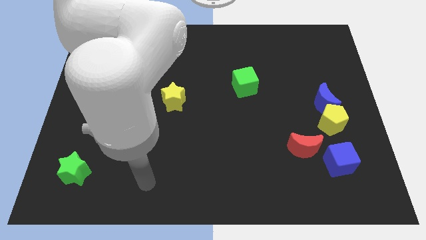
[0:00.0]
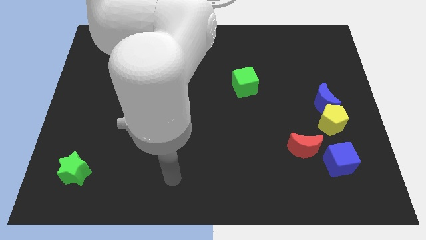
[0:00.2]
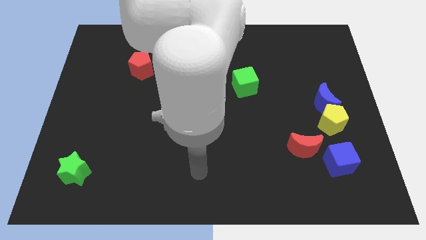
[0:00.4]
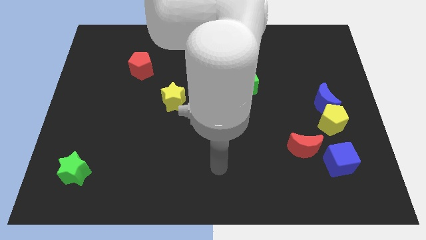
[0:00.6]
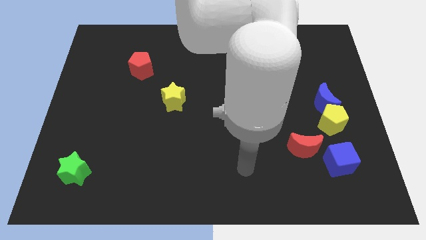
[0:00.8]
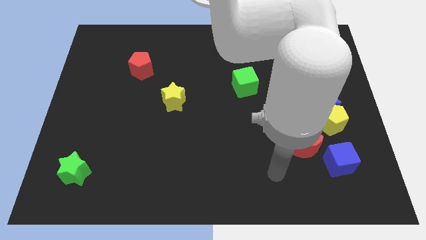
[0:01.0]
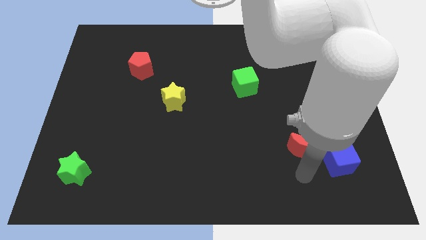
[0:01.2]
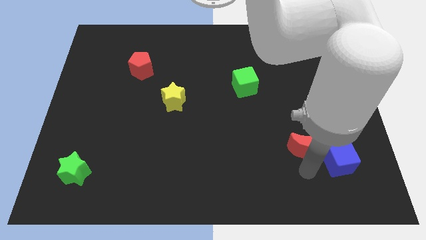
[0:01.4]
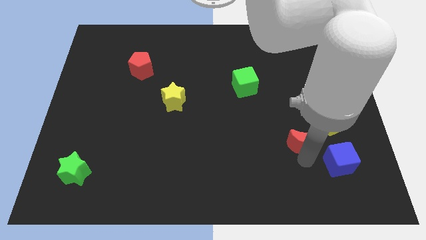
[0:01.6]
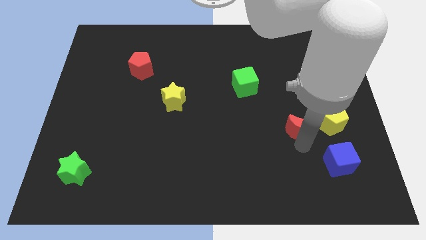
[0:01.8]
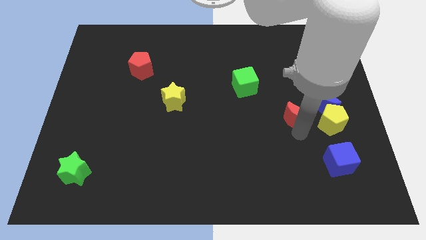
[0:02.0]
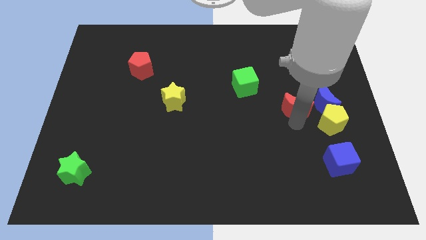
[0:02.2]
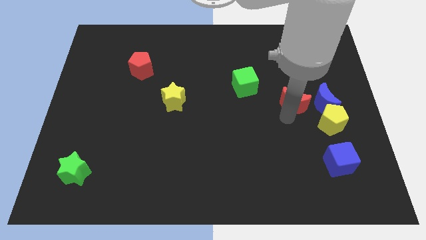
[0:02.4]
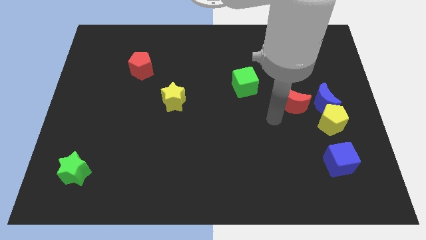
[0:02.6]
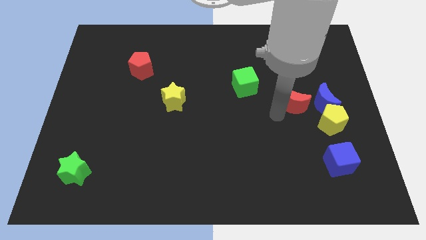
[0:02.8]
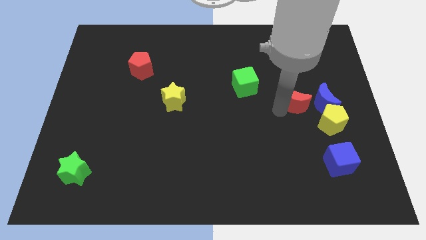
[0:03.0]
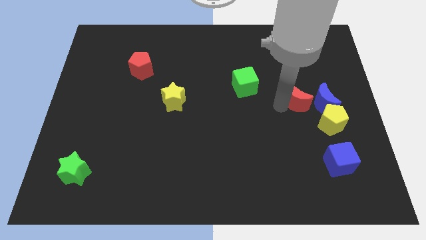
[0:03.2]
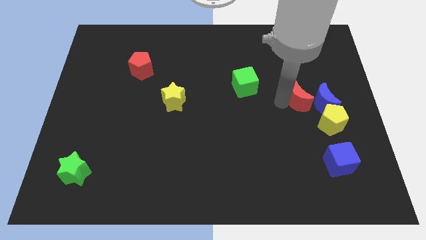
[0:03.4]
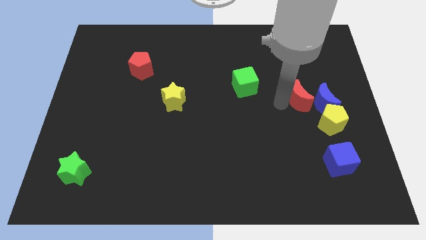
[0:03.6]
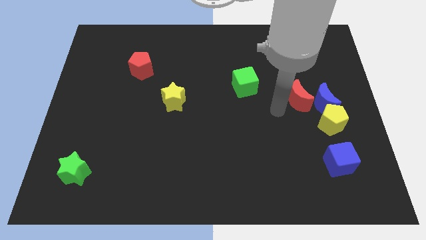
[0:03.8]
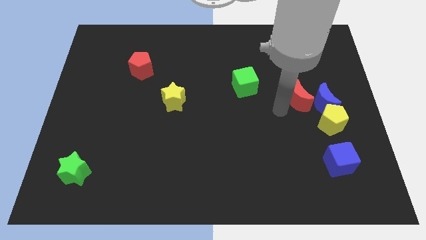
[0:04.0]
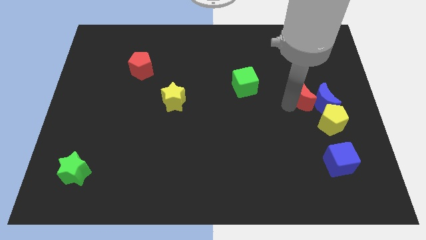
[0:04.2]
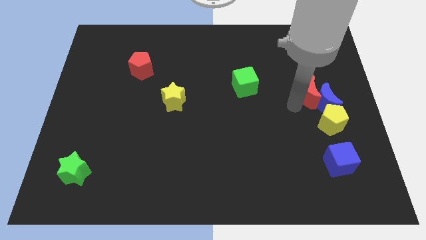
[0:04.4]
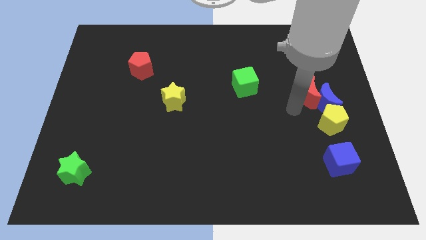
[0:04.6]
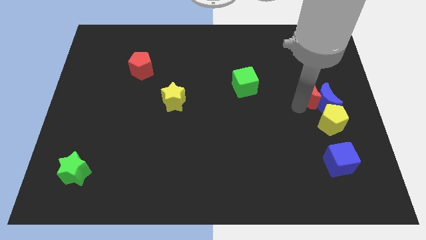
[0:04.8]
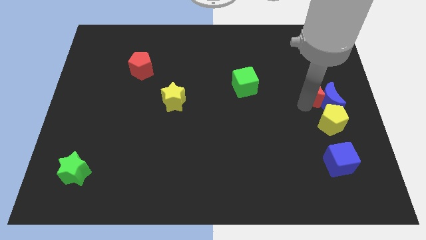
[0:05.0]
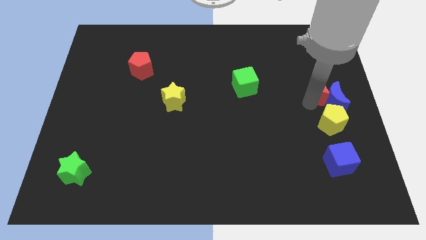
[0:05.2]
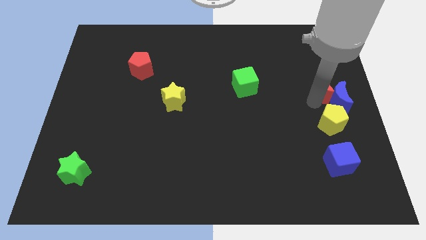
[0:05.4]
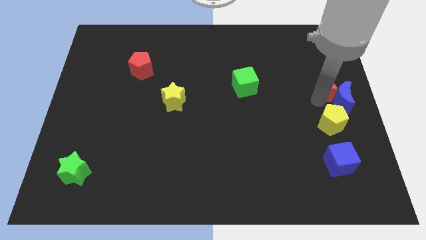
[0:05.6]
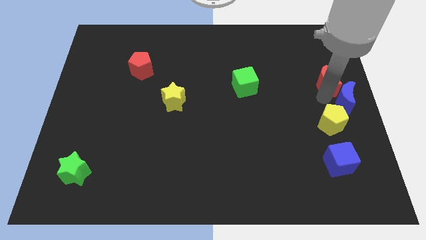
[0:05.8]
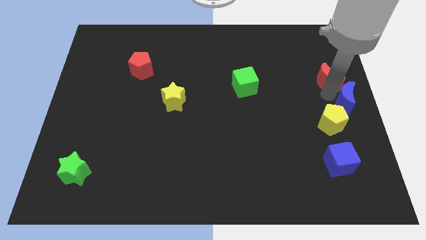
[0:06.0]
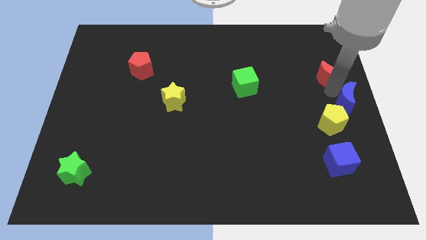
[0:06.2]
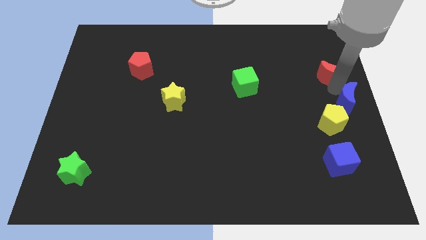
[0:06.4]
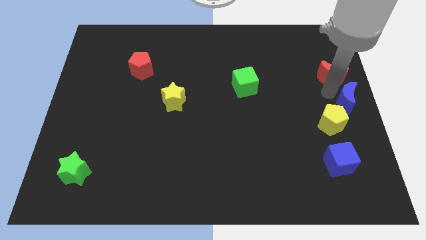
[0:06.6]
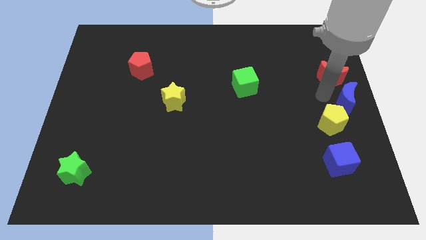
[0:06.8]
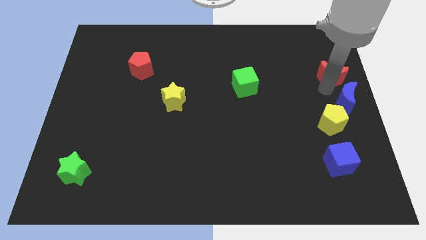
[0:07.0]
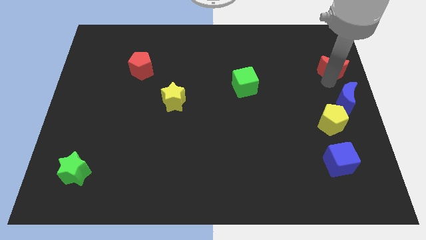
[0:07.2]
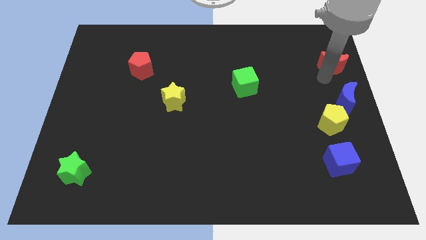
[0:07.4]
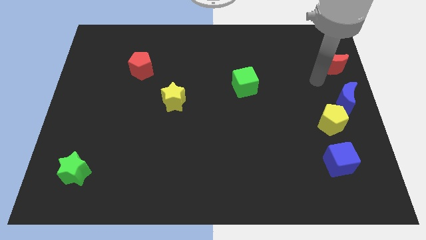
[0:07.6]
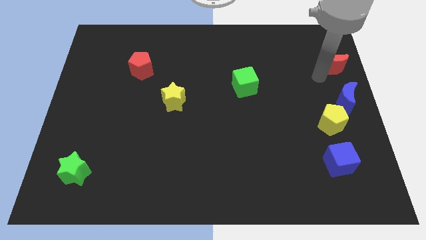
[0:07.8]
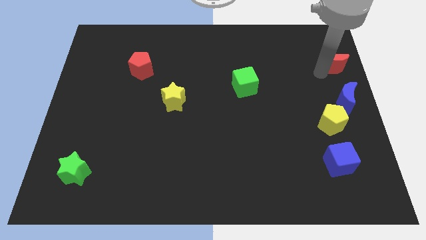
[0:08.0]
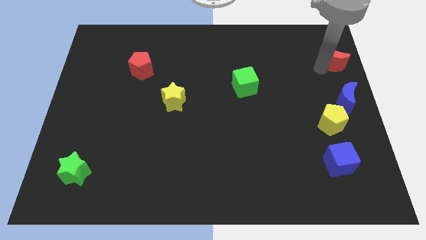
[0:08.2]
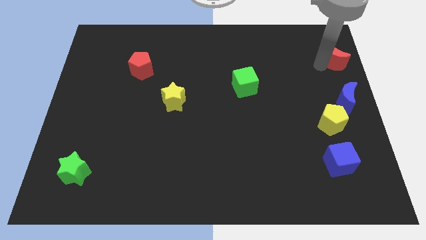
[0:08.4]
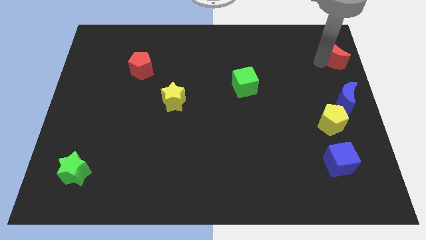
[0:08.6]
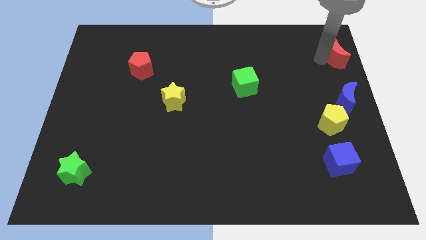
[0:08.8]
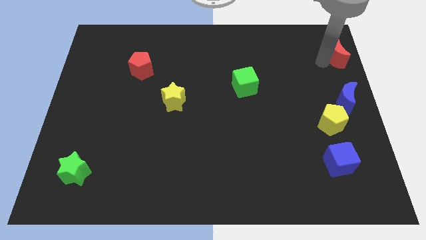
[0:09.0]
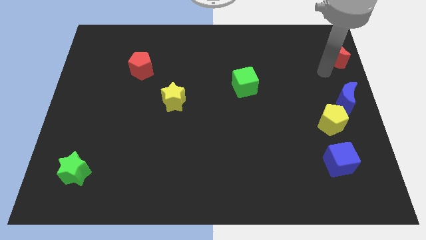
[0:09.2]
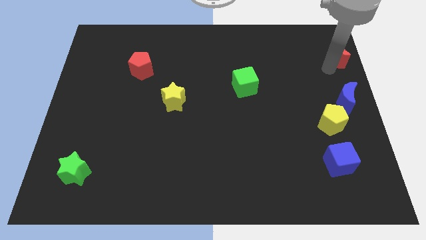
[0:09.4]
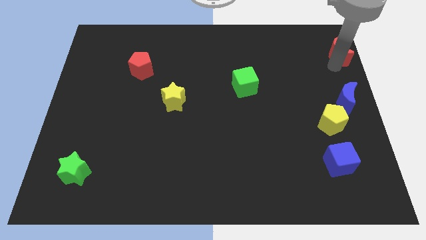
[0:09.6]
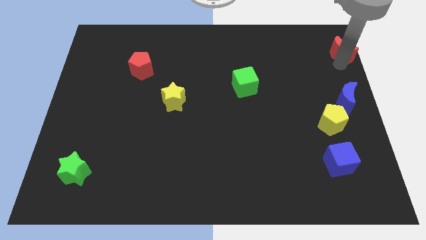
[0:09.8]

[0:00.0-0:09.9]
slide the red moon to the top right of the board

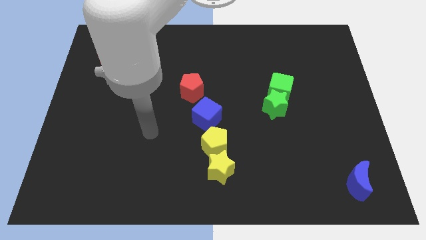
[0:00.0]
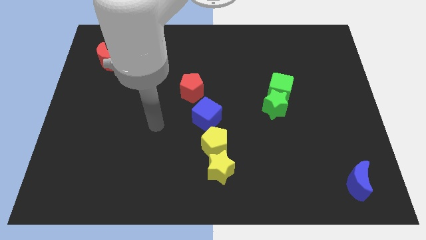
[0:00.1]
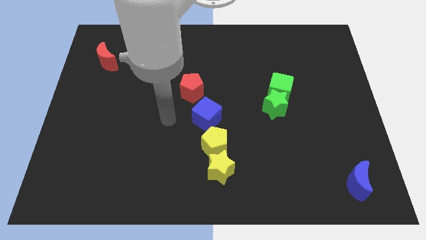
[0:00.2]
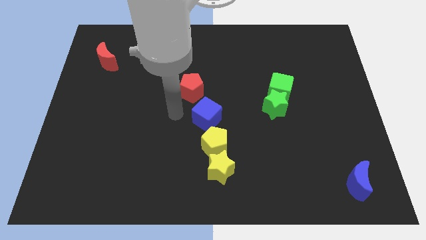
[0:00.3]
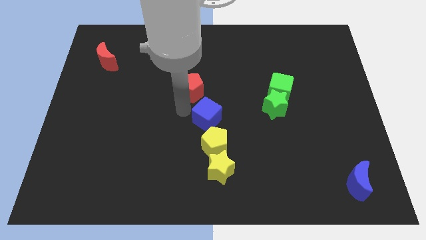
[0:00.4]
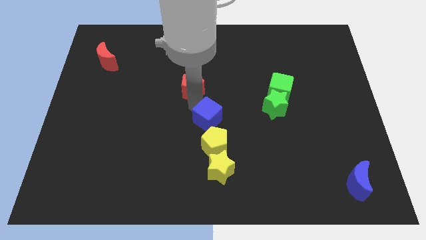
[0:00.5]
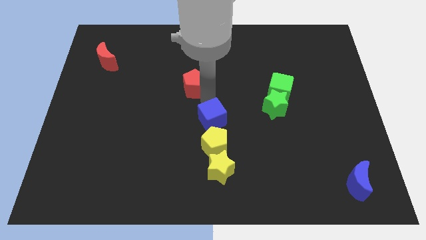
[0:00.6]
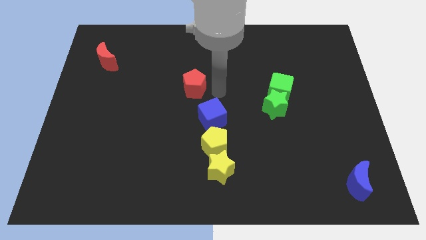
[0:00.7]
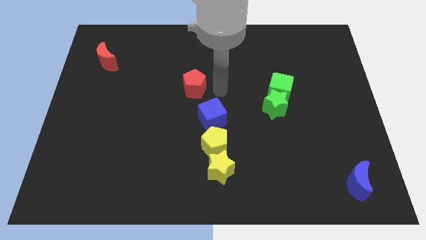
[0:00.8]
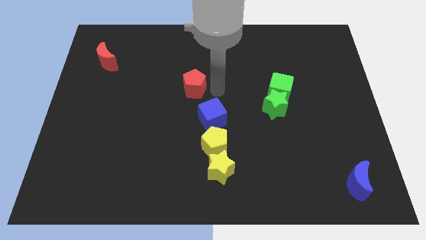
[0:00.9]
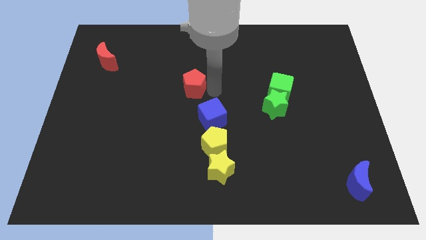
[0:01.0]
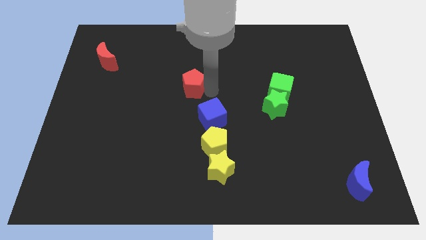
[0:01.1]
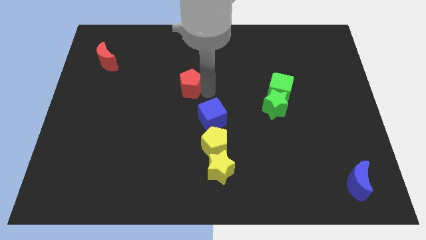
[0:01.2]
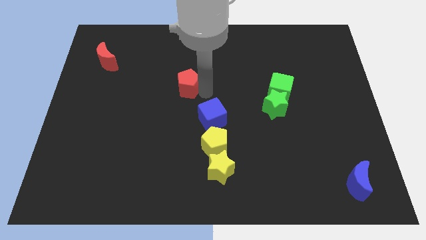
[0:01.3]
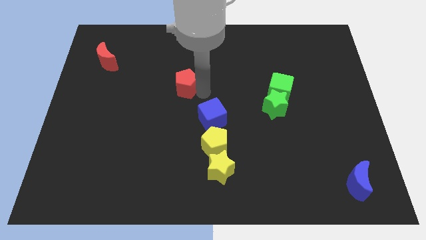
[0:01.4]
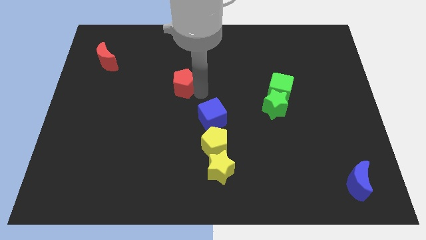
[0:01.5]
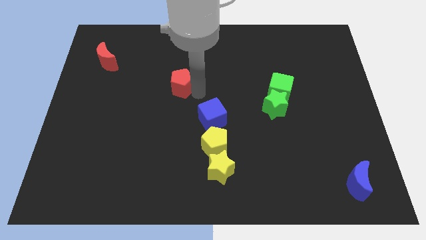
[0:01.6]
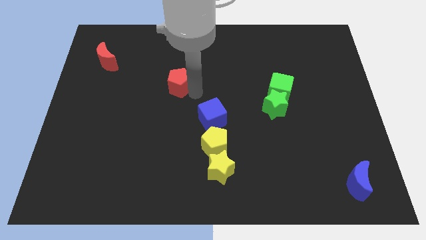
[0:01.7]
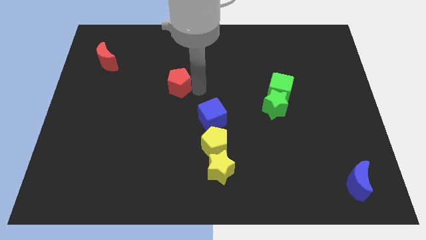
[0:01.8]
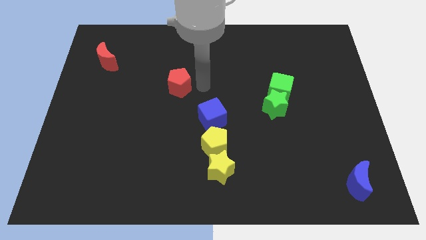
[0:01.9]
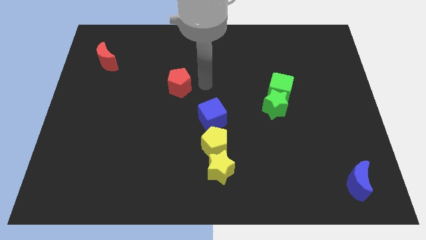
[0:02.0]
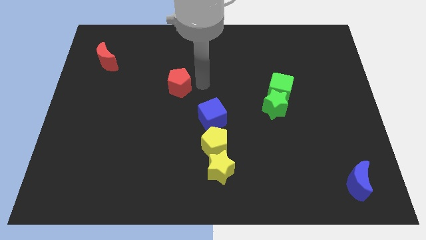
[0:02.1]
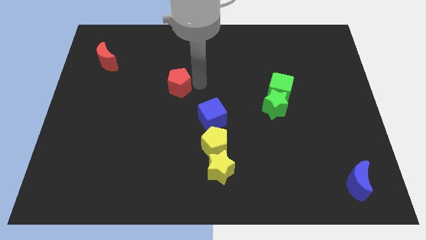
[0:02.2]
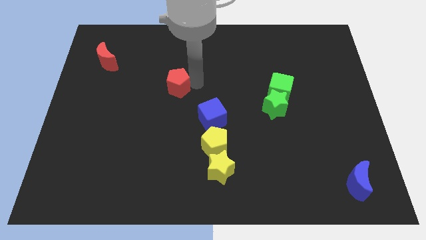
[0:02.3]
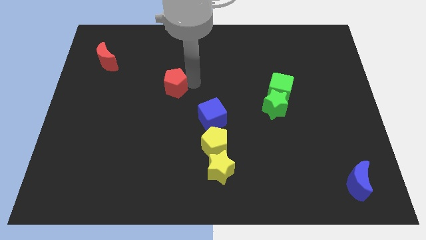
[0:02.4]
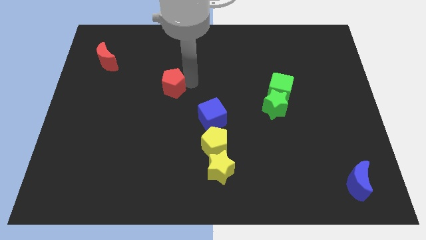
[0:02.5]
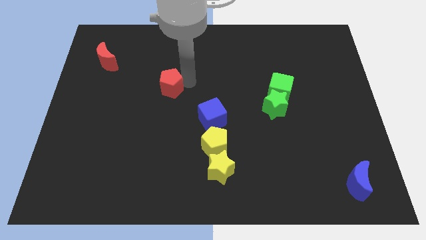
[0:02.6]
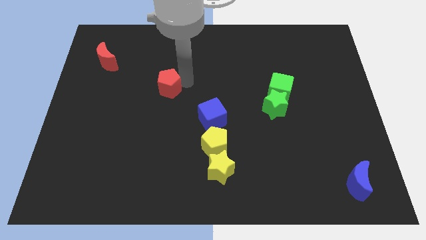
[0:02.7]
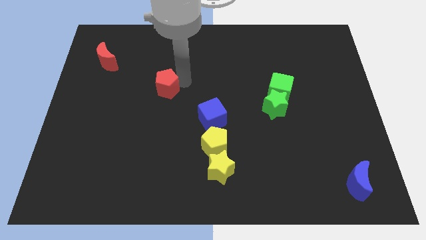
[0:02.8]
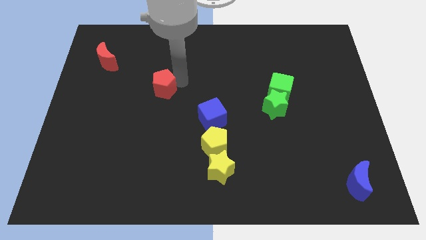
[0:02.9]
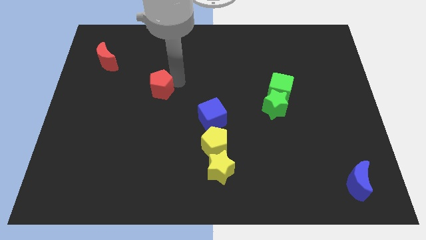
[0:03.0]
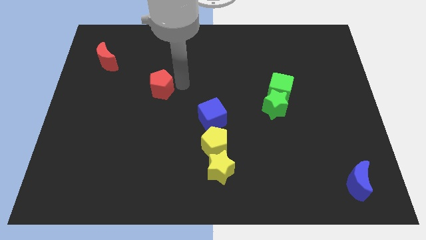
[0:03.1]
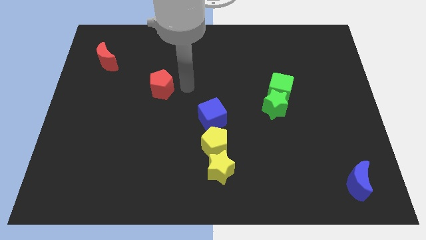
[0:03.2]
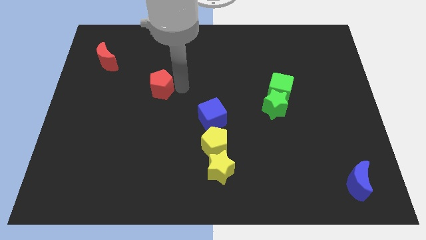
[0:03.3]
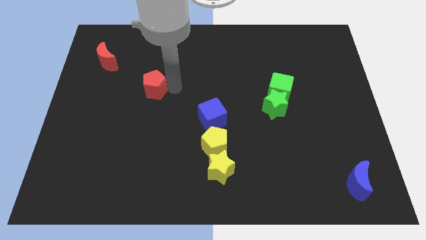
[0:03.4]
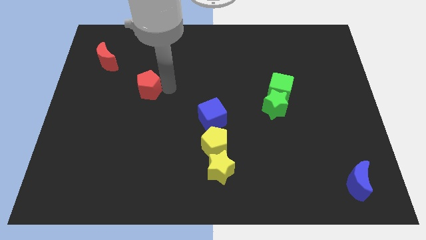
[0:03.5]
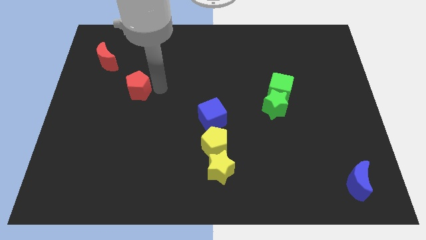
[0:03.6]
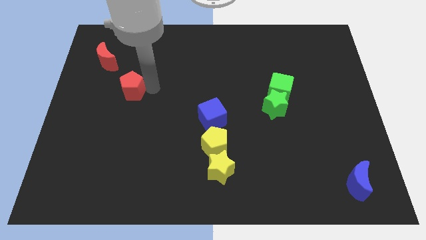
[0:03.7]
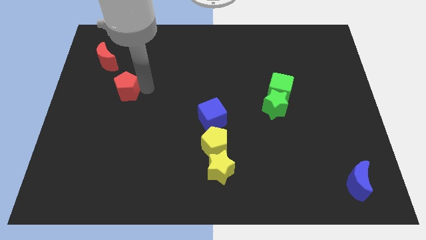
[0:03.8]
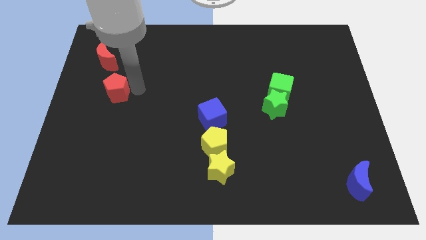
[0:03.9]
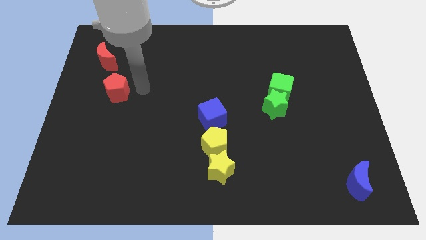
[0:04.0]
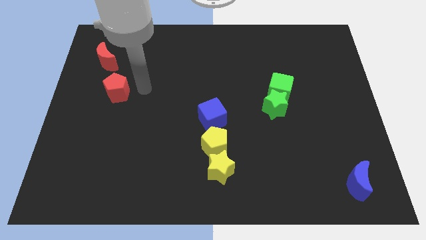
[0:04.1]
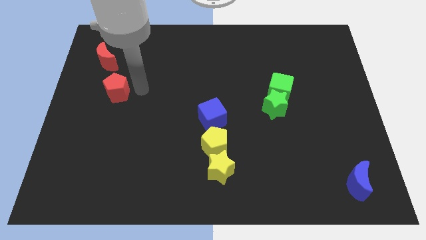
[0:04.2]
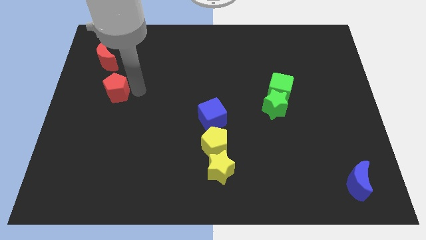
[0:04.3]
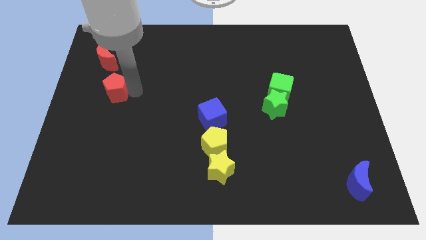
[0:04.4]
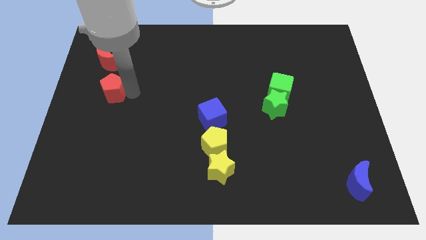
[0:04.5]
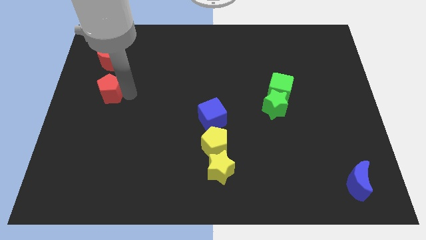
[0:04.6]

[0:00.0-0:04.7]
move the red pentagon to the left side
